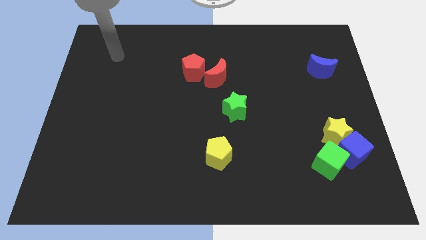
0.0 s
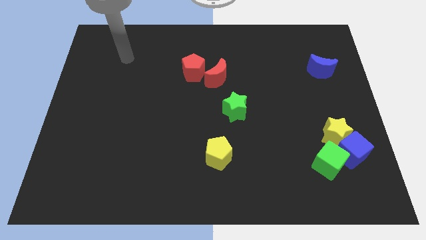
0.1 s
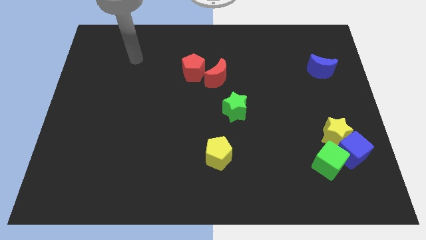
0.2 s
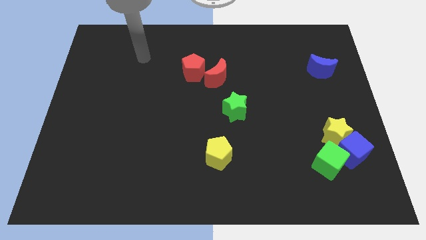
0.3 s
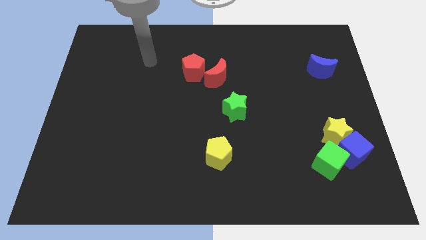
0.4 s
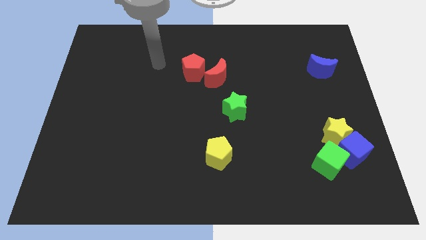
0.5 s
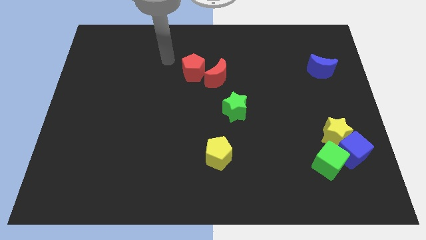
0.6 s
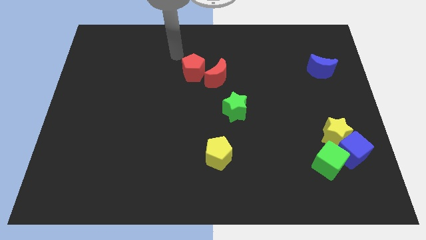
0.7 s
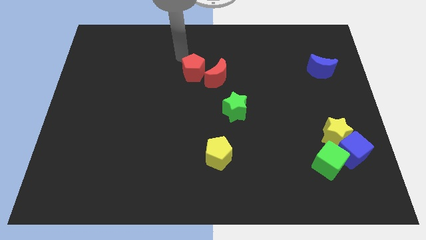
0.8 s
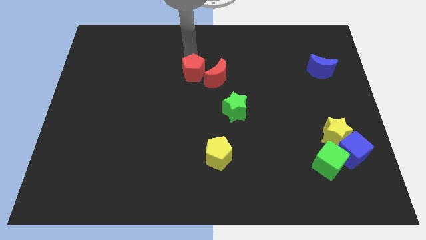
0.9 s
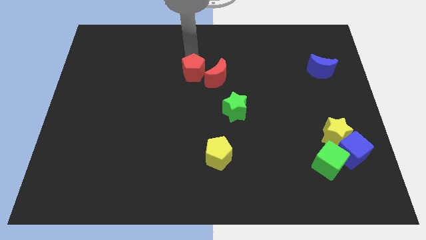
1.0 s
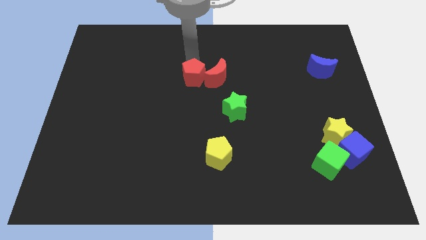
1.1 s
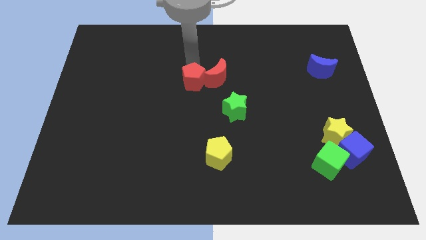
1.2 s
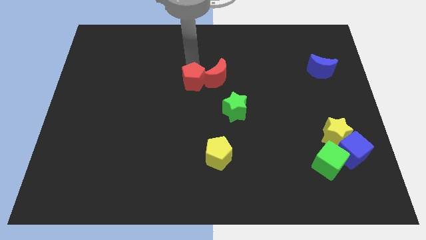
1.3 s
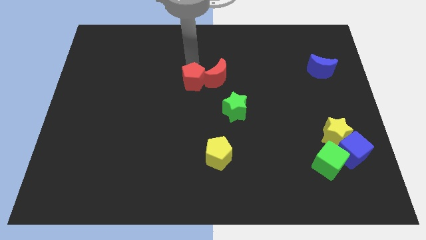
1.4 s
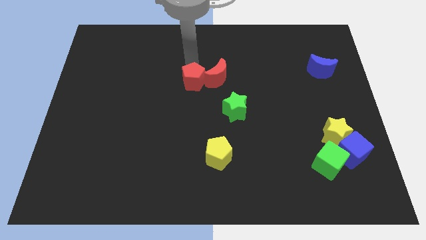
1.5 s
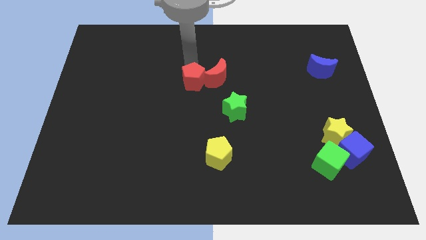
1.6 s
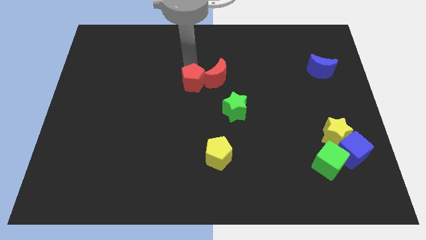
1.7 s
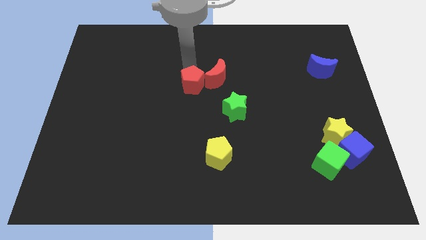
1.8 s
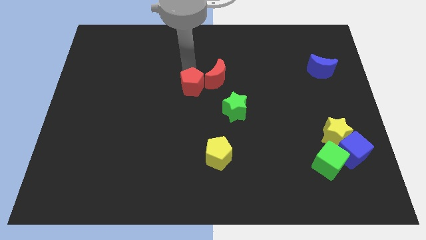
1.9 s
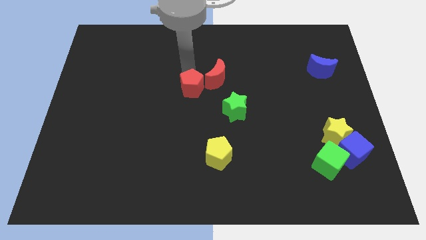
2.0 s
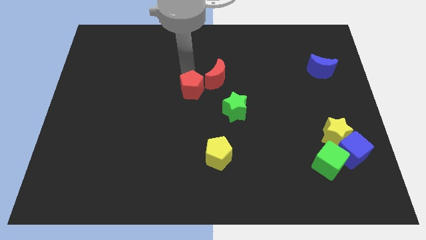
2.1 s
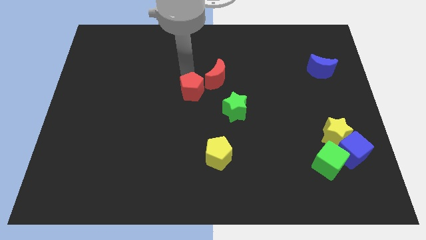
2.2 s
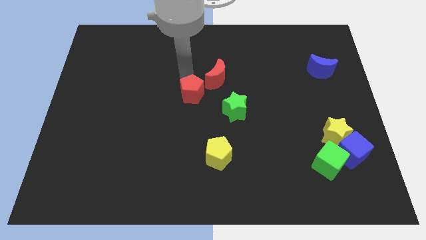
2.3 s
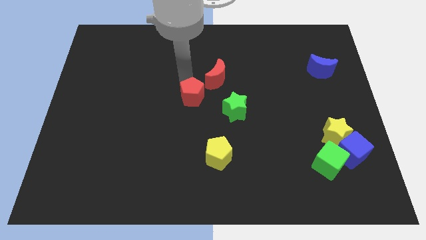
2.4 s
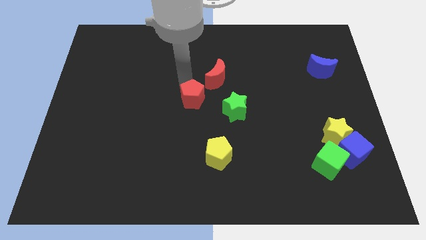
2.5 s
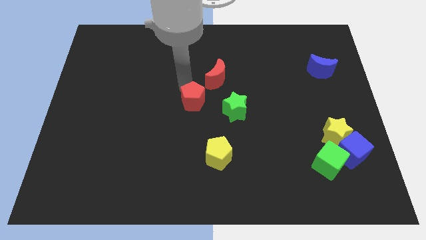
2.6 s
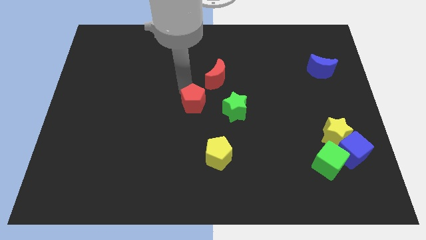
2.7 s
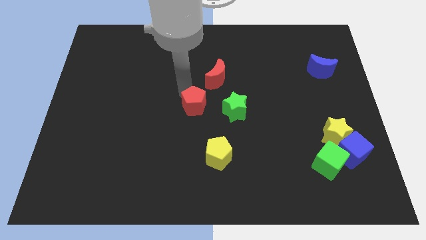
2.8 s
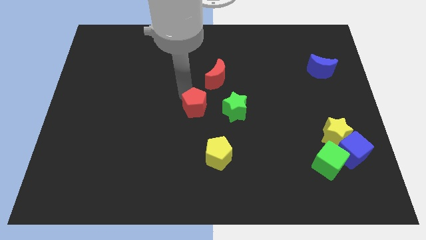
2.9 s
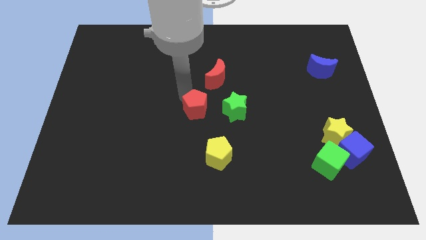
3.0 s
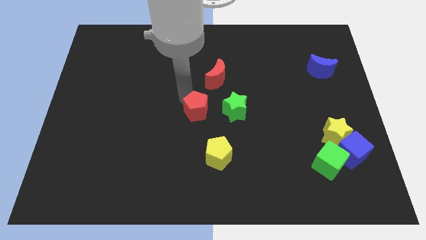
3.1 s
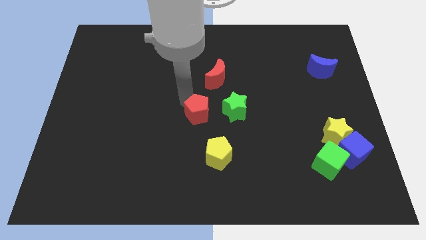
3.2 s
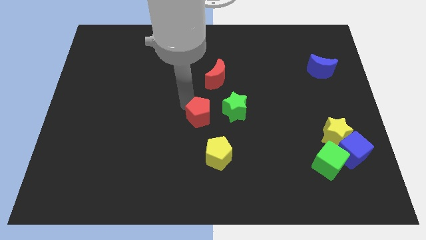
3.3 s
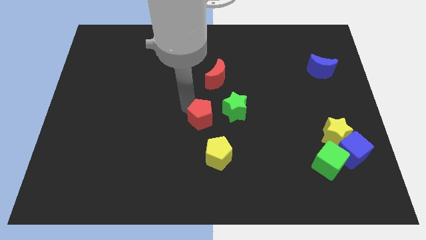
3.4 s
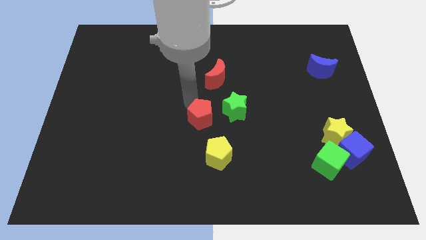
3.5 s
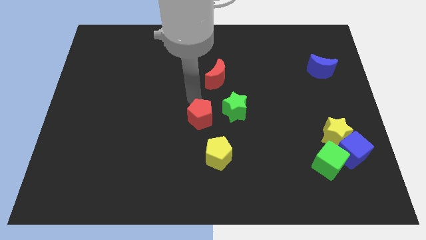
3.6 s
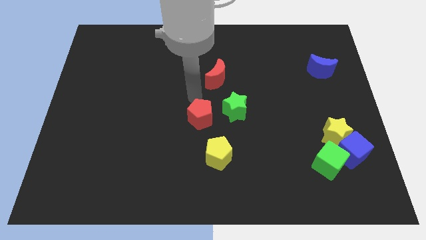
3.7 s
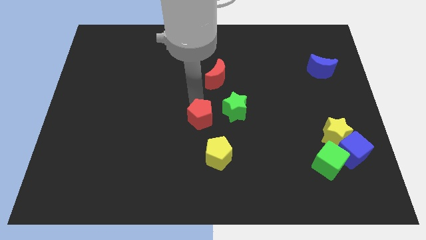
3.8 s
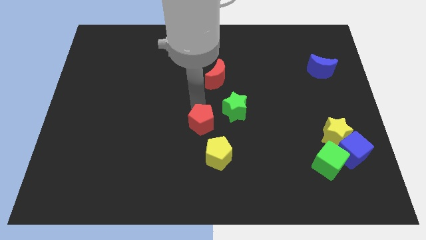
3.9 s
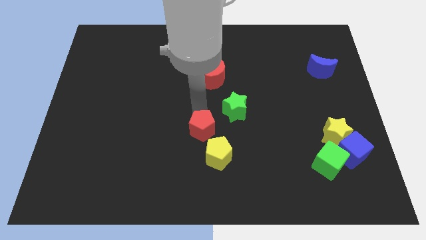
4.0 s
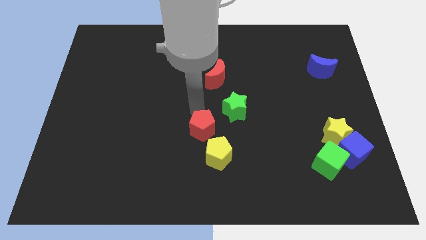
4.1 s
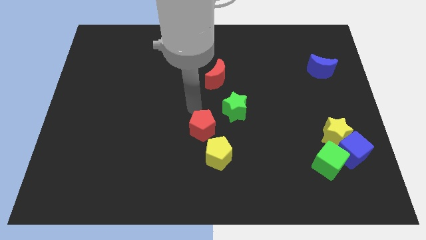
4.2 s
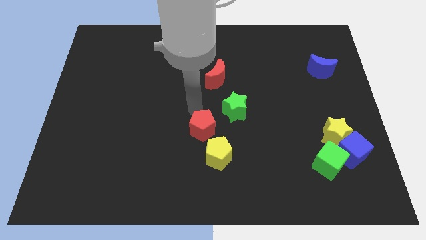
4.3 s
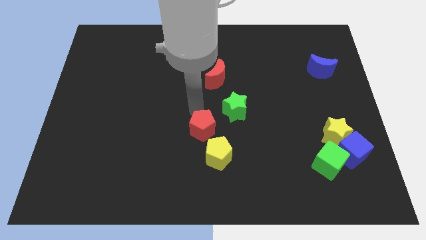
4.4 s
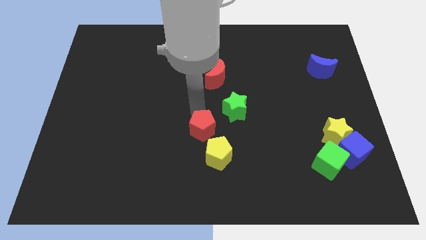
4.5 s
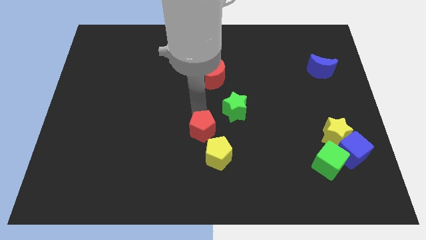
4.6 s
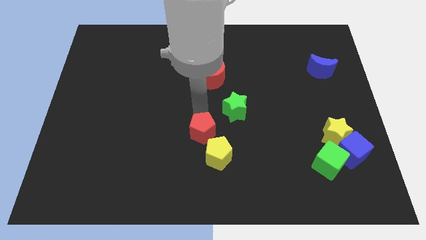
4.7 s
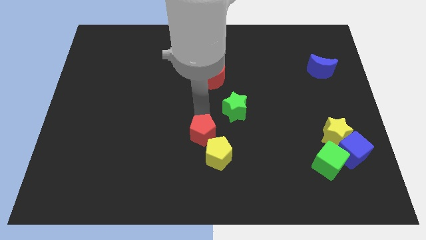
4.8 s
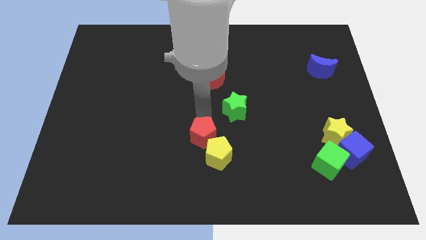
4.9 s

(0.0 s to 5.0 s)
slide the red pentagon next to the yellow pentagon

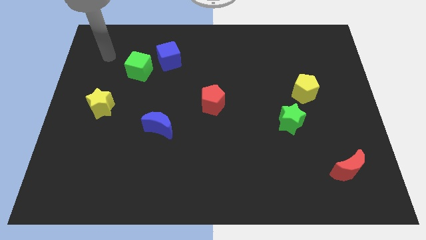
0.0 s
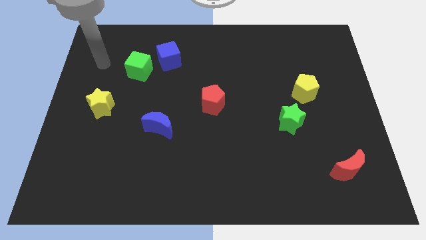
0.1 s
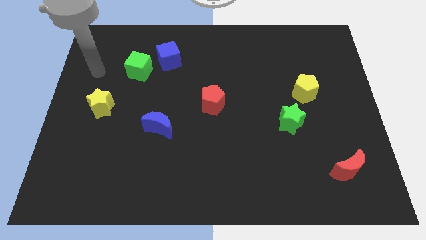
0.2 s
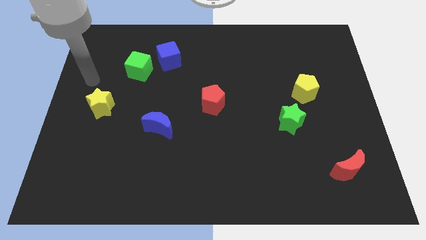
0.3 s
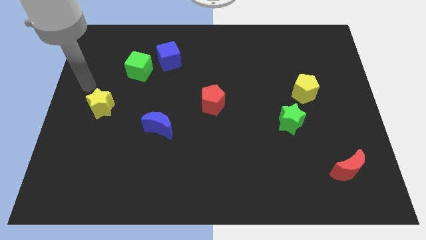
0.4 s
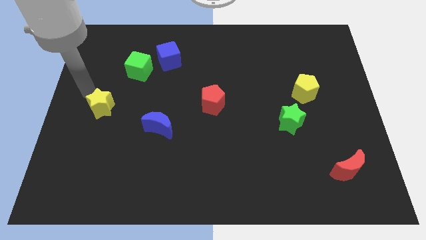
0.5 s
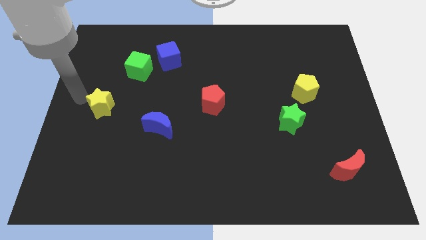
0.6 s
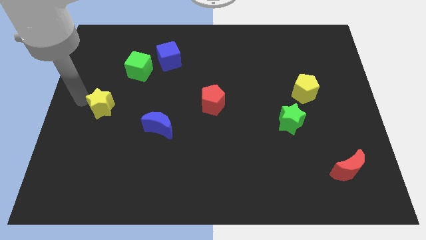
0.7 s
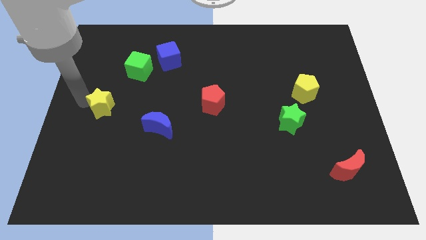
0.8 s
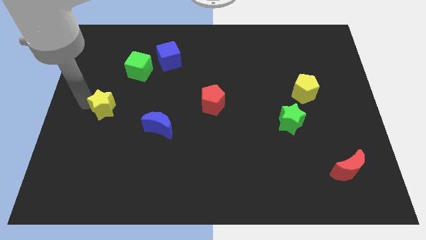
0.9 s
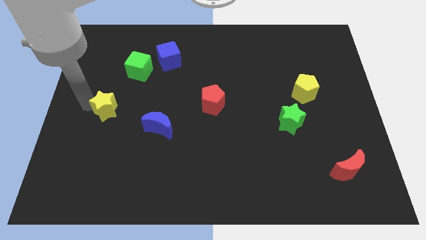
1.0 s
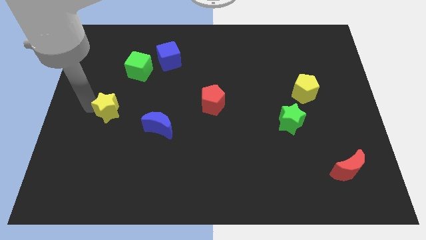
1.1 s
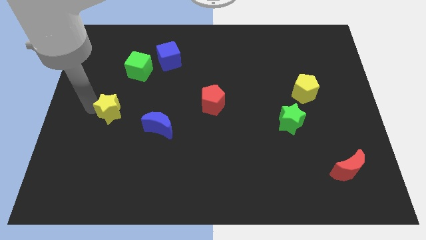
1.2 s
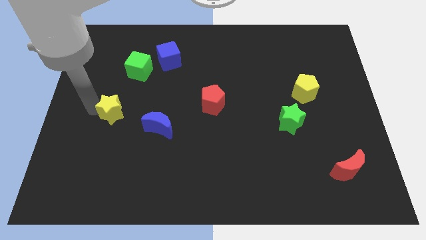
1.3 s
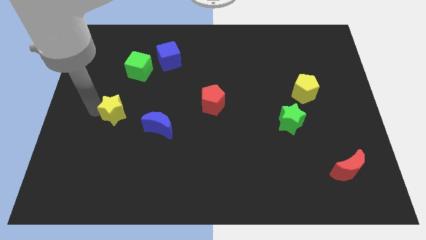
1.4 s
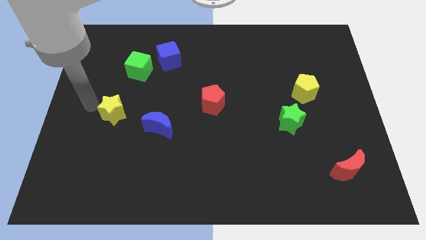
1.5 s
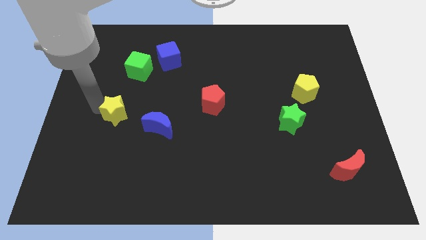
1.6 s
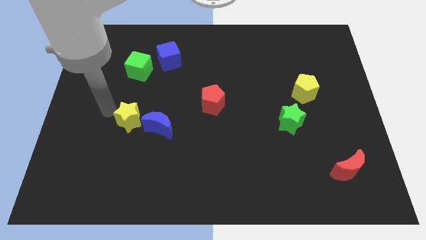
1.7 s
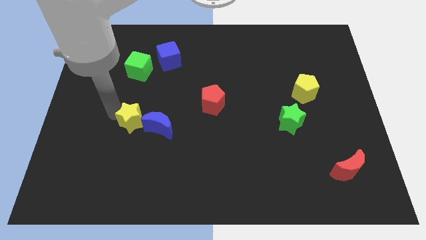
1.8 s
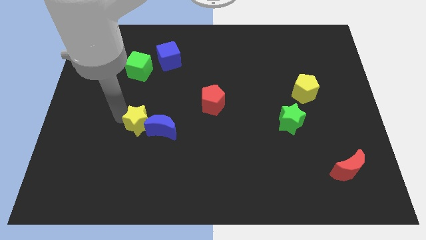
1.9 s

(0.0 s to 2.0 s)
put the yellow star next to the blue moon

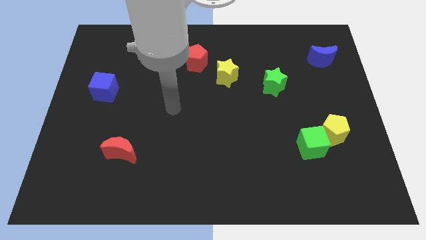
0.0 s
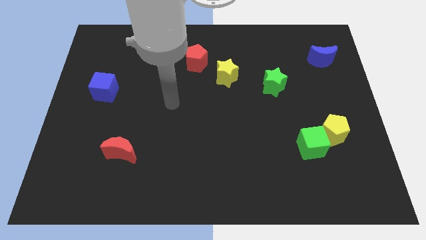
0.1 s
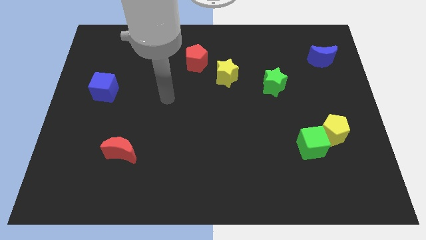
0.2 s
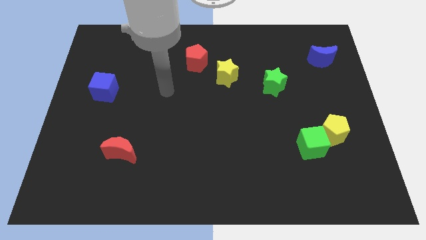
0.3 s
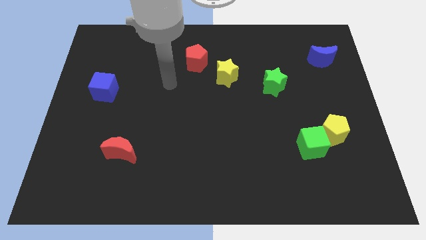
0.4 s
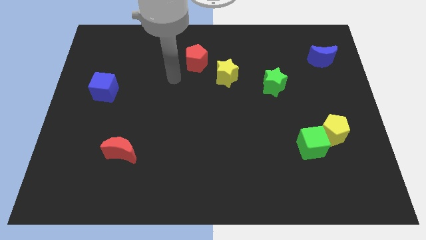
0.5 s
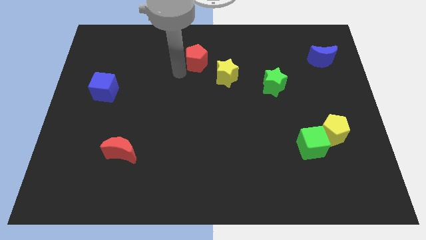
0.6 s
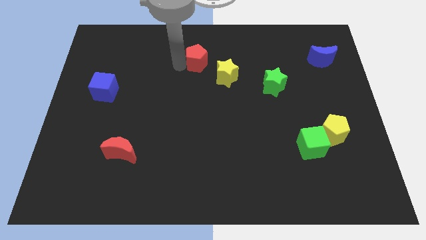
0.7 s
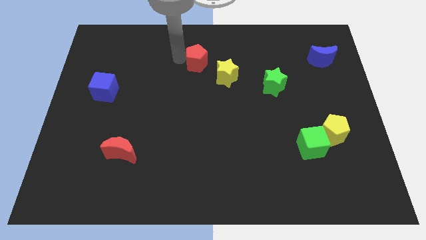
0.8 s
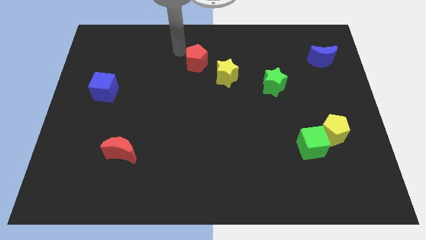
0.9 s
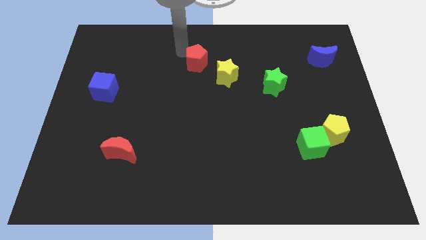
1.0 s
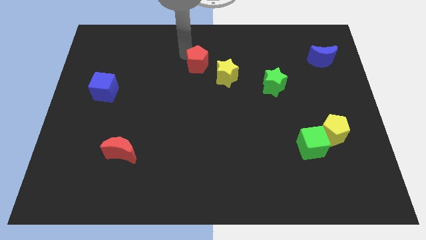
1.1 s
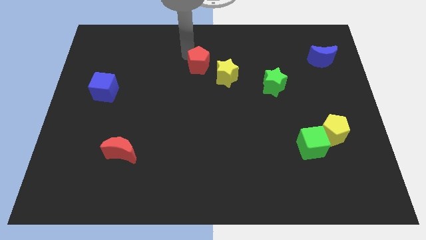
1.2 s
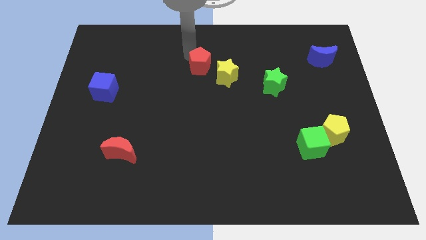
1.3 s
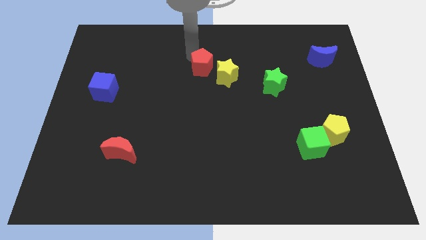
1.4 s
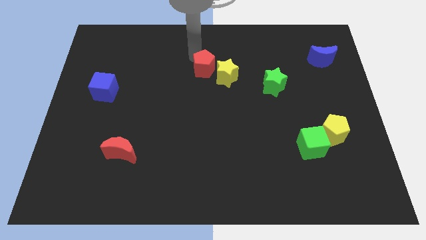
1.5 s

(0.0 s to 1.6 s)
push the red pentagon next to the yellow star
